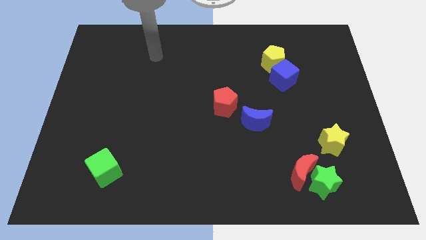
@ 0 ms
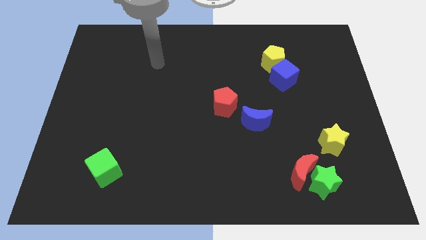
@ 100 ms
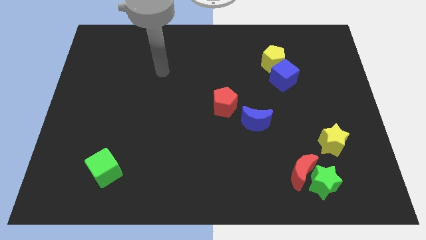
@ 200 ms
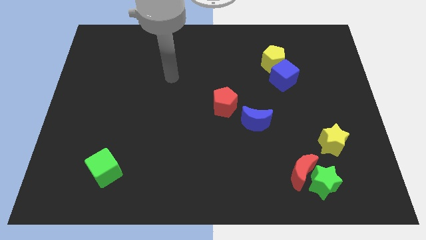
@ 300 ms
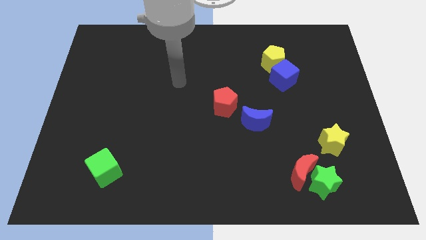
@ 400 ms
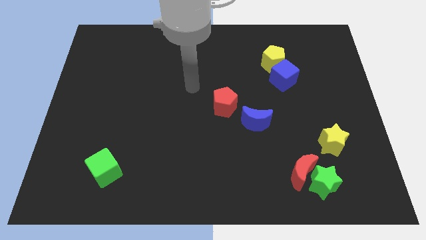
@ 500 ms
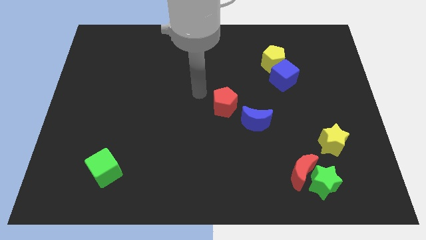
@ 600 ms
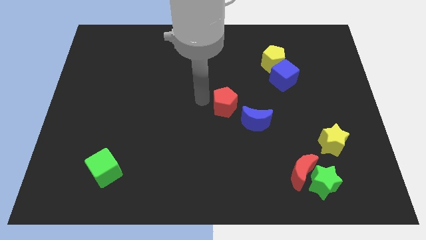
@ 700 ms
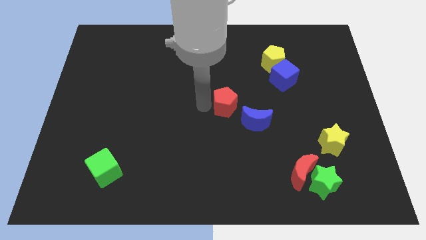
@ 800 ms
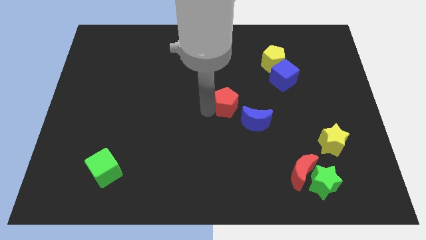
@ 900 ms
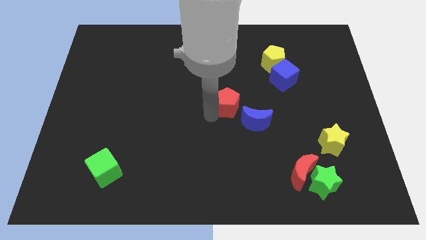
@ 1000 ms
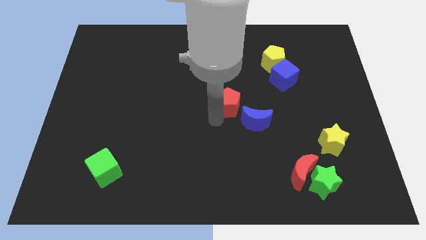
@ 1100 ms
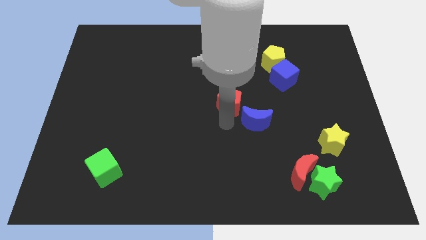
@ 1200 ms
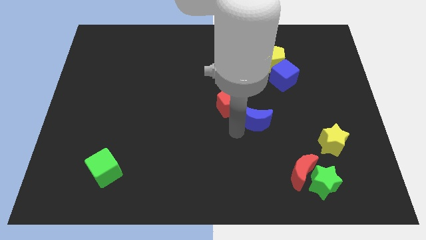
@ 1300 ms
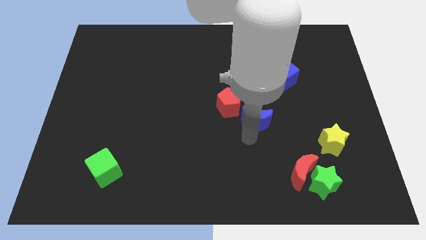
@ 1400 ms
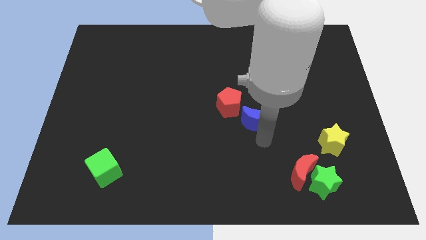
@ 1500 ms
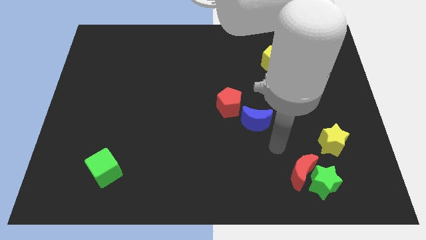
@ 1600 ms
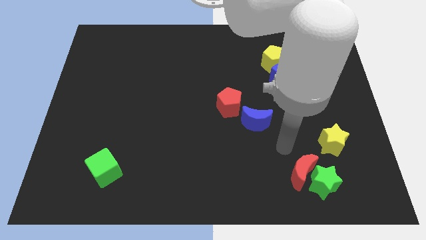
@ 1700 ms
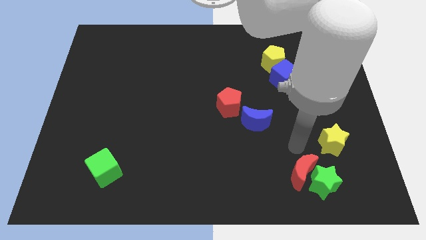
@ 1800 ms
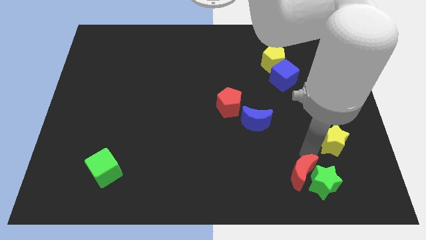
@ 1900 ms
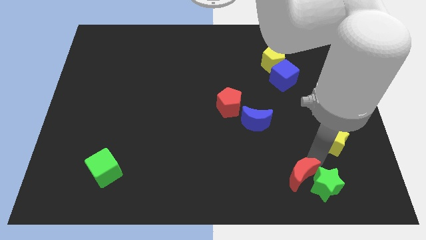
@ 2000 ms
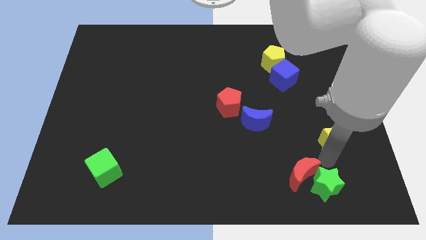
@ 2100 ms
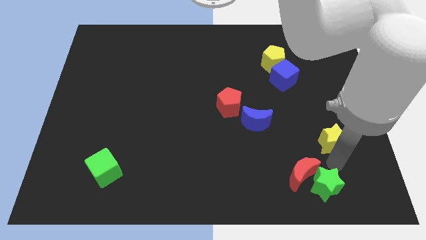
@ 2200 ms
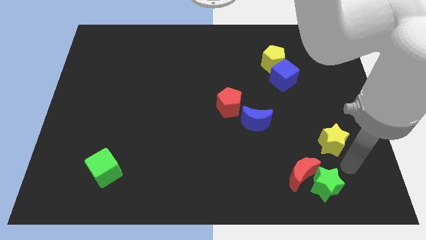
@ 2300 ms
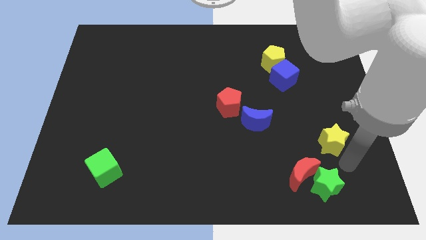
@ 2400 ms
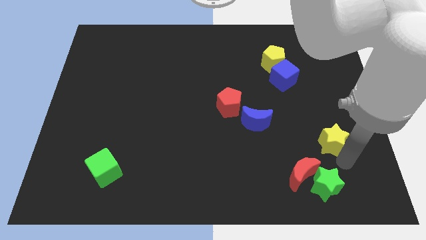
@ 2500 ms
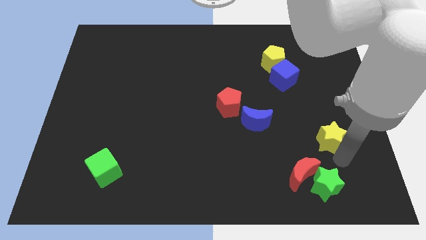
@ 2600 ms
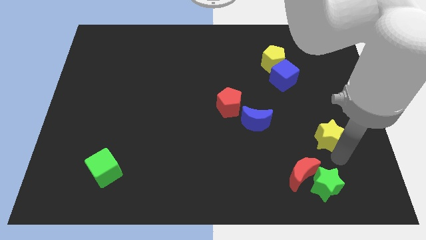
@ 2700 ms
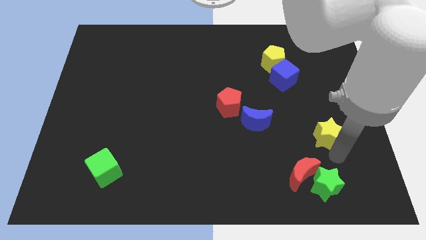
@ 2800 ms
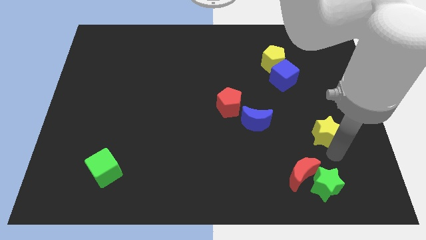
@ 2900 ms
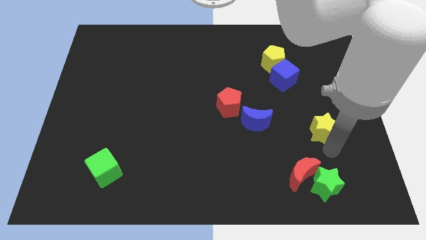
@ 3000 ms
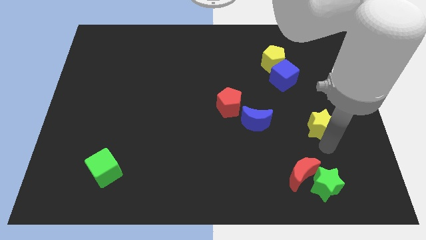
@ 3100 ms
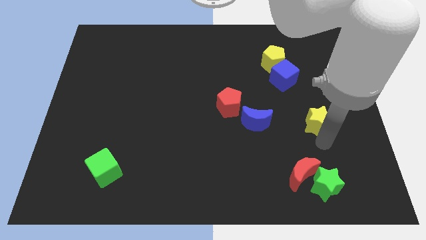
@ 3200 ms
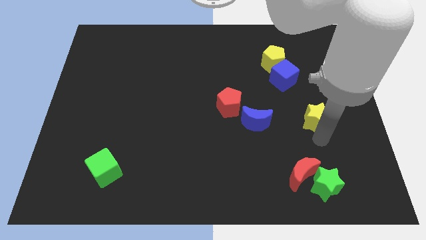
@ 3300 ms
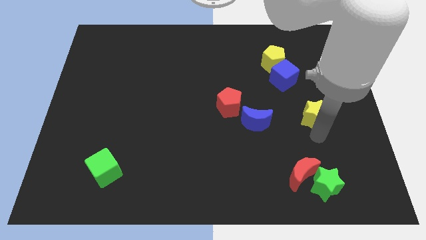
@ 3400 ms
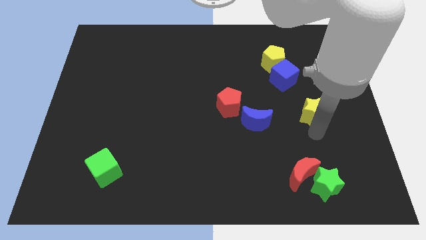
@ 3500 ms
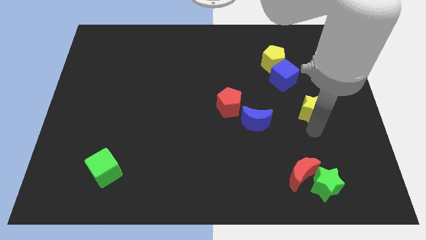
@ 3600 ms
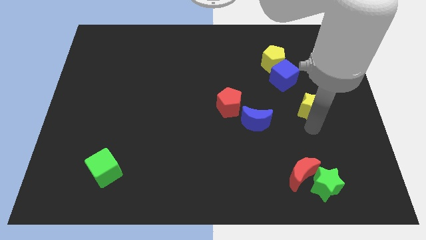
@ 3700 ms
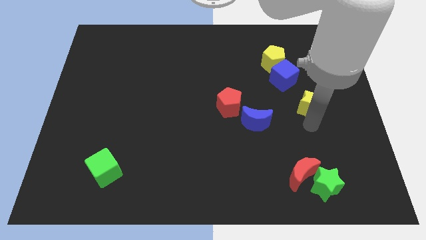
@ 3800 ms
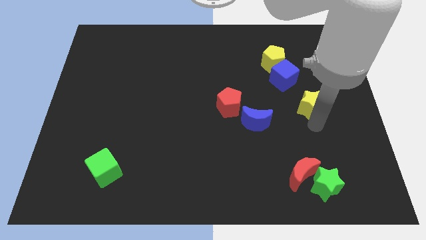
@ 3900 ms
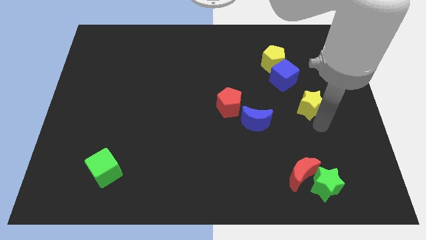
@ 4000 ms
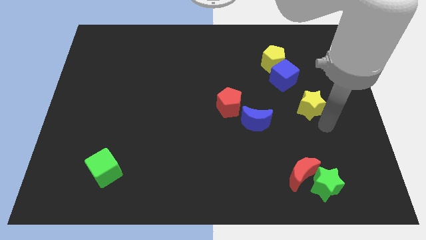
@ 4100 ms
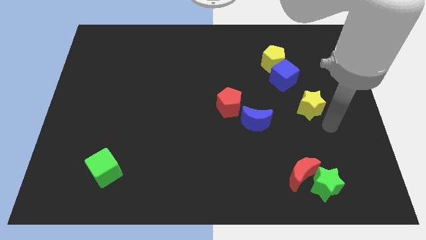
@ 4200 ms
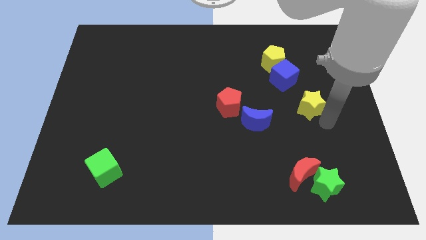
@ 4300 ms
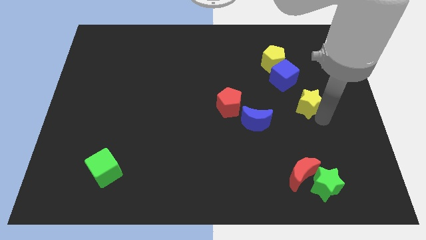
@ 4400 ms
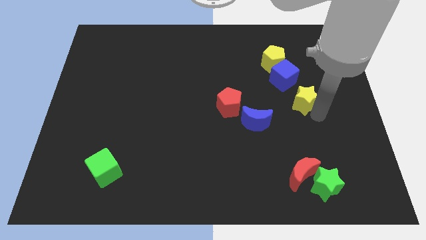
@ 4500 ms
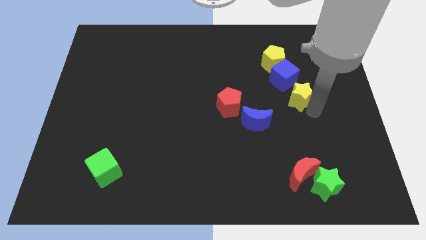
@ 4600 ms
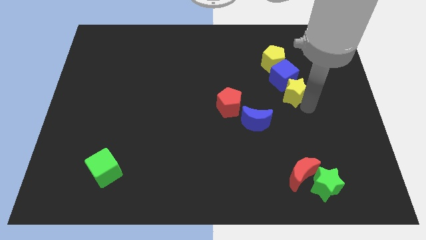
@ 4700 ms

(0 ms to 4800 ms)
put the yellow star close to the blue cube

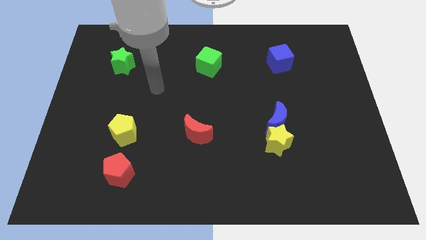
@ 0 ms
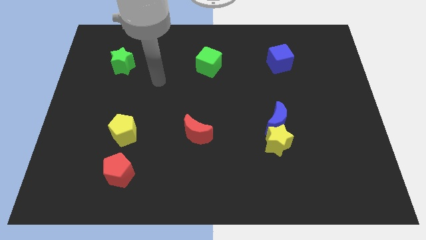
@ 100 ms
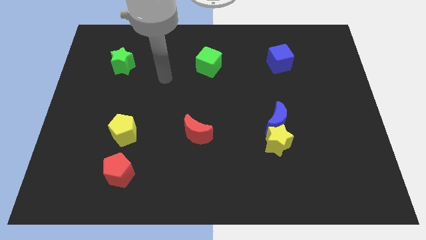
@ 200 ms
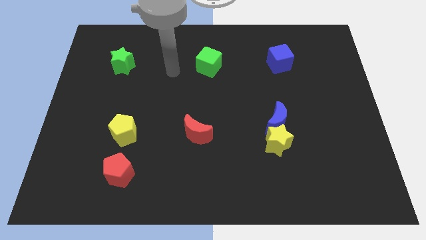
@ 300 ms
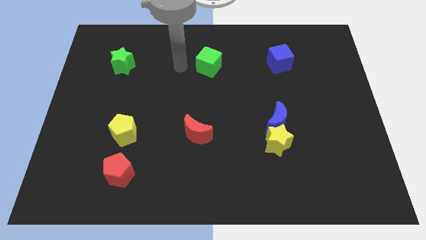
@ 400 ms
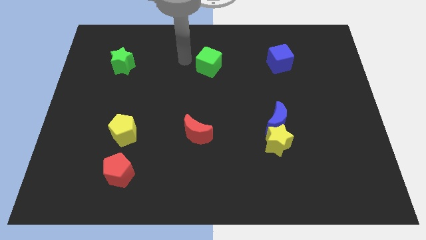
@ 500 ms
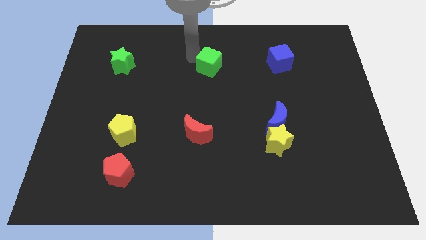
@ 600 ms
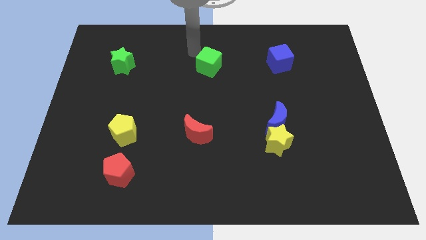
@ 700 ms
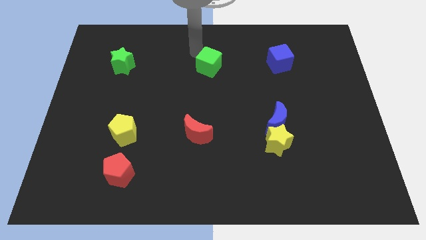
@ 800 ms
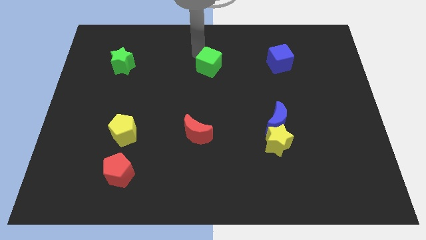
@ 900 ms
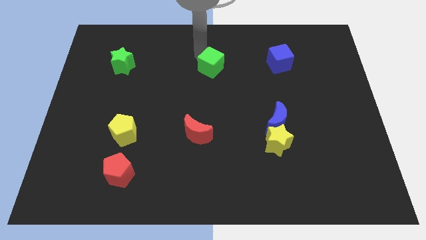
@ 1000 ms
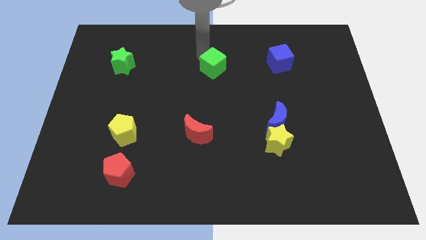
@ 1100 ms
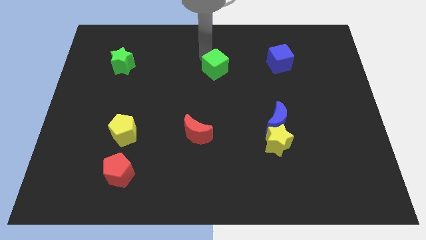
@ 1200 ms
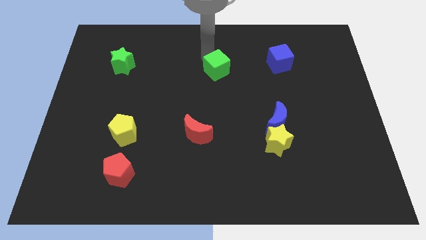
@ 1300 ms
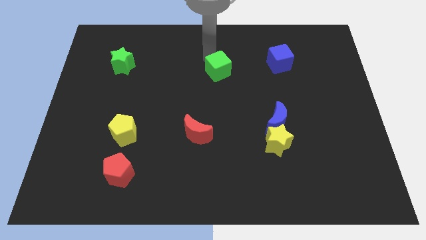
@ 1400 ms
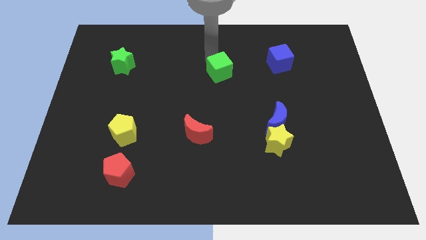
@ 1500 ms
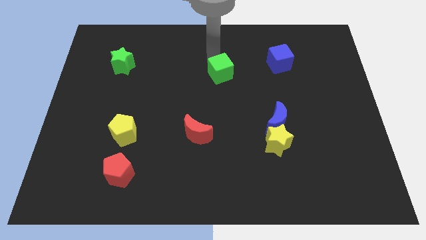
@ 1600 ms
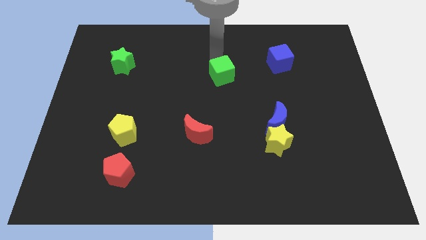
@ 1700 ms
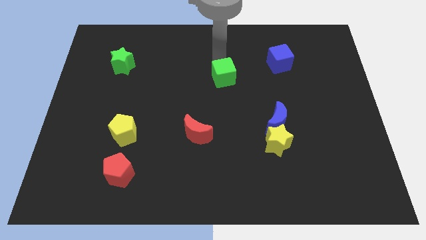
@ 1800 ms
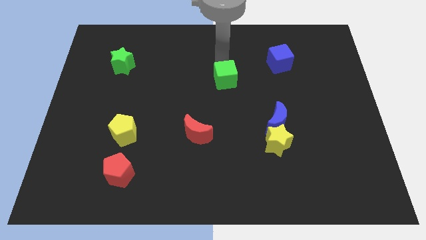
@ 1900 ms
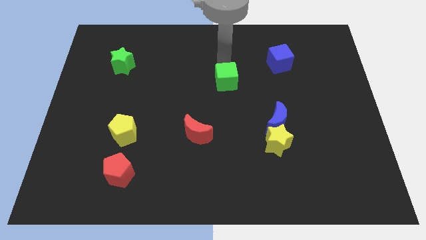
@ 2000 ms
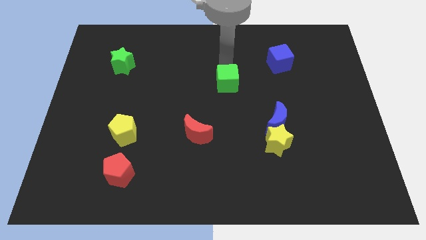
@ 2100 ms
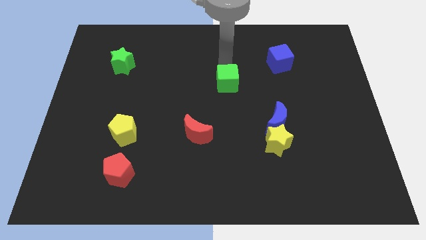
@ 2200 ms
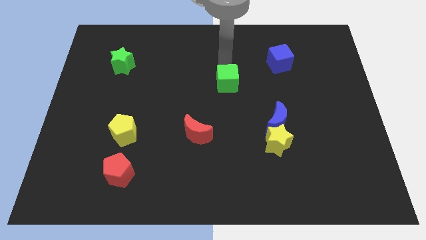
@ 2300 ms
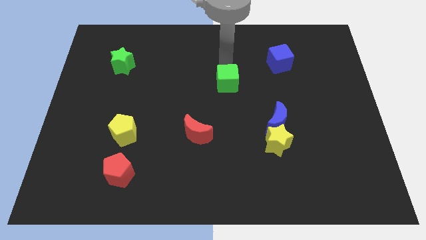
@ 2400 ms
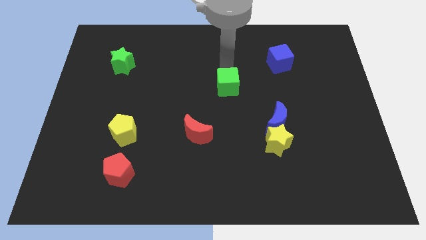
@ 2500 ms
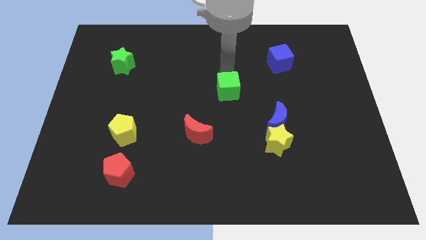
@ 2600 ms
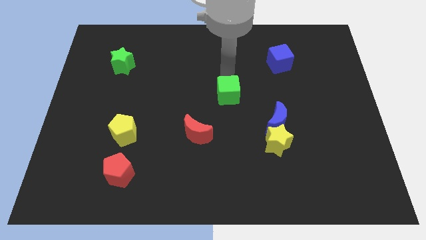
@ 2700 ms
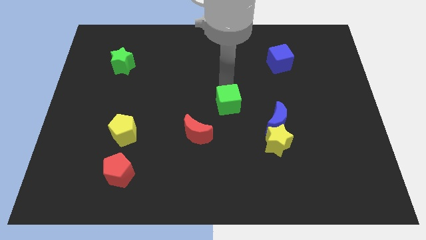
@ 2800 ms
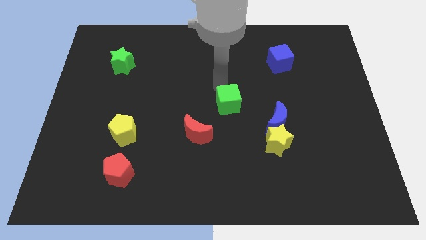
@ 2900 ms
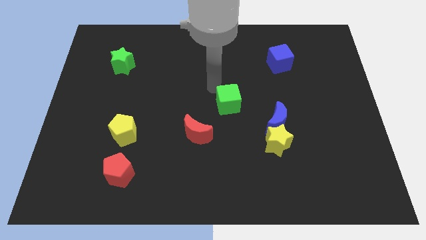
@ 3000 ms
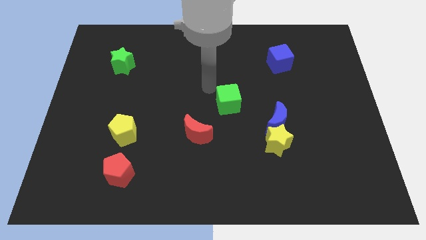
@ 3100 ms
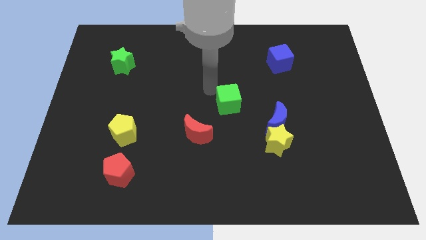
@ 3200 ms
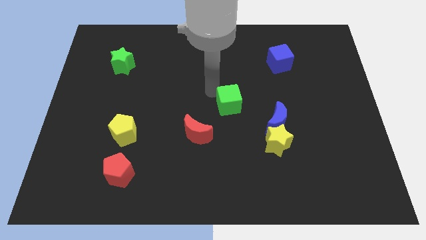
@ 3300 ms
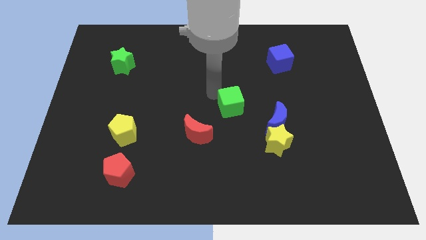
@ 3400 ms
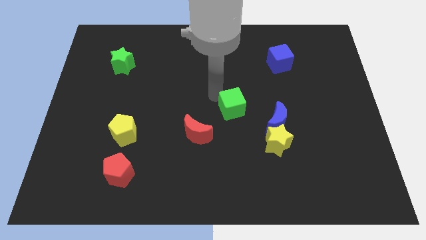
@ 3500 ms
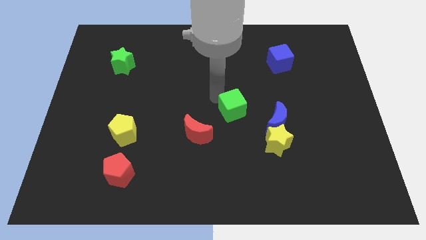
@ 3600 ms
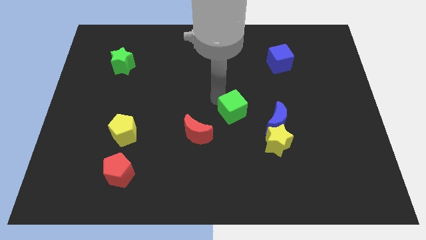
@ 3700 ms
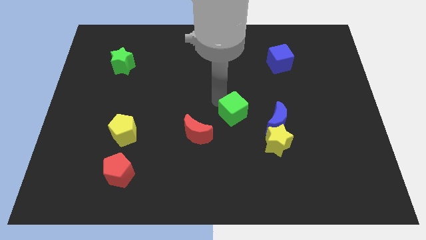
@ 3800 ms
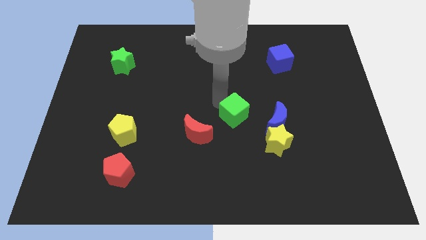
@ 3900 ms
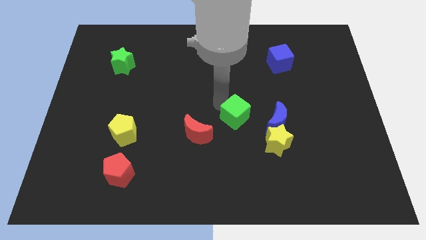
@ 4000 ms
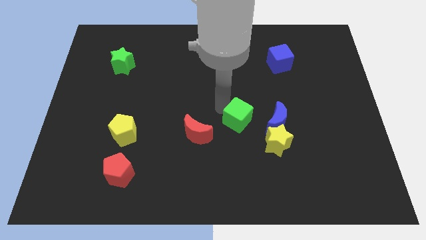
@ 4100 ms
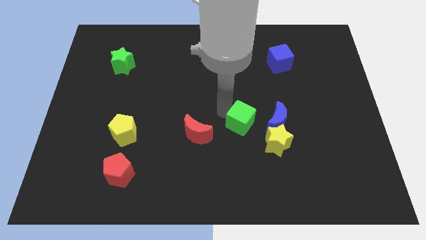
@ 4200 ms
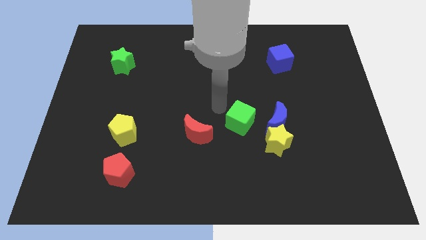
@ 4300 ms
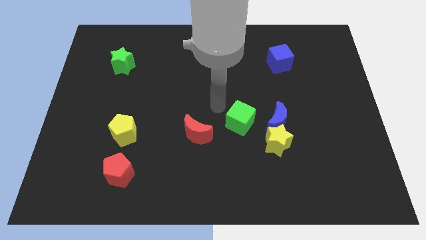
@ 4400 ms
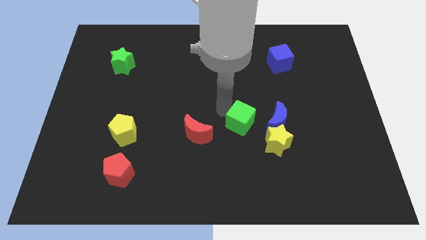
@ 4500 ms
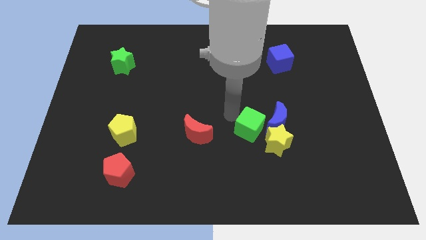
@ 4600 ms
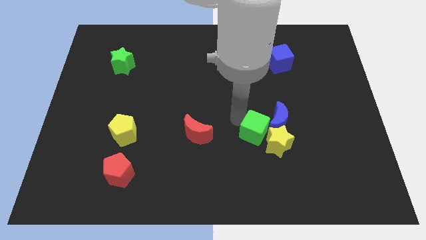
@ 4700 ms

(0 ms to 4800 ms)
slide the green cube to the yellow star
